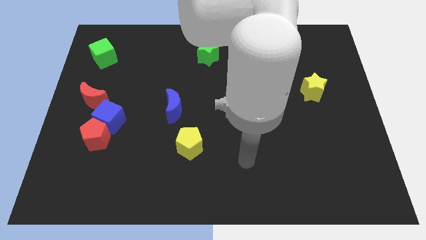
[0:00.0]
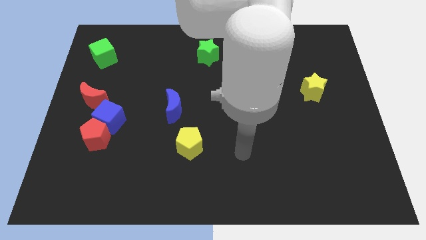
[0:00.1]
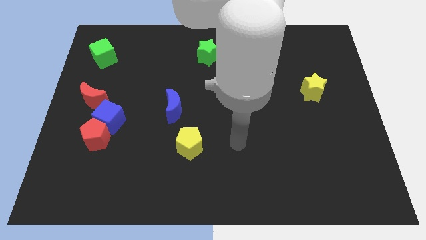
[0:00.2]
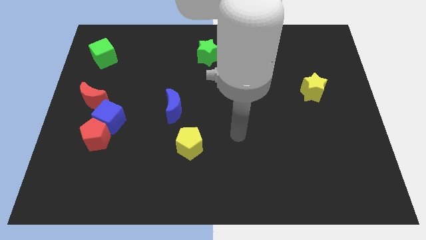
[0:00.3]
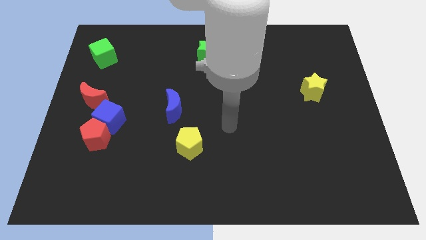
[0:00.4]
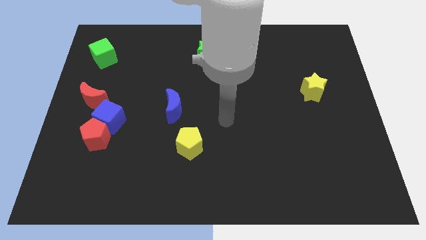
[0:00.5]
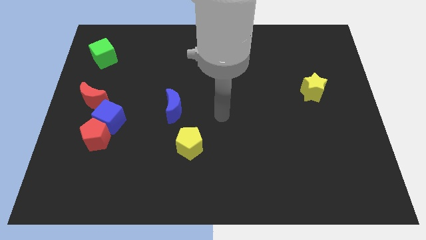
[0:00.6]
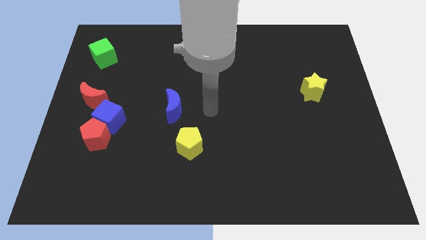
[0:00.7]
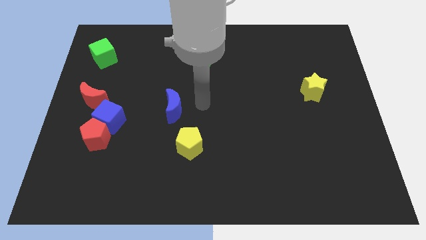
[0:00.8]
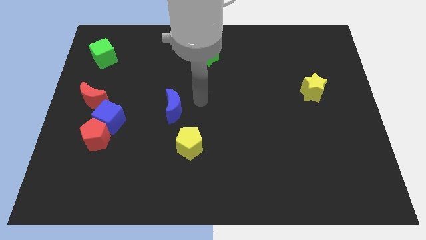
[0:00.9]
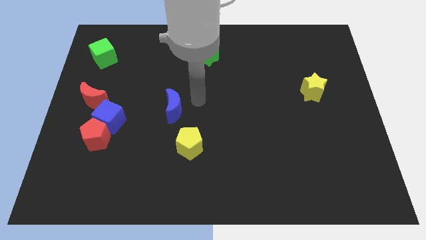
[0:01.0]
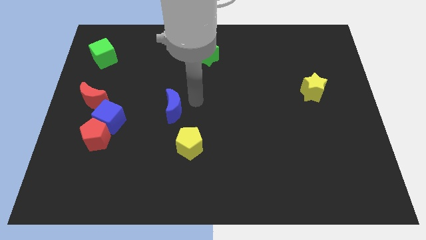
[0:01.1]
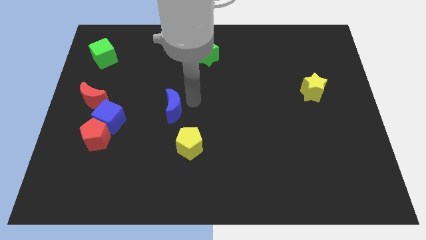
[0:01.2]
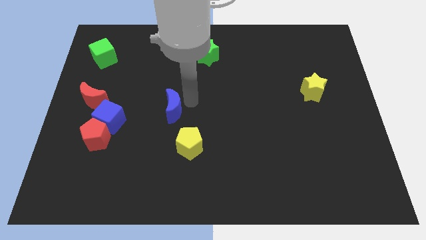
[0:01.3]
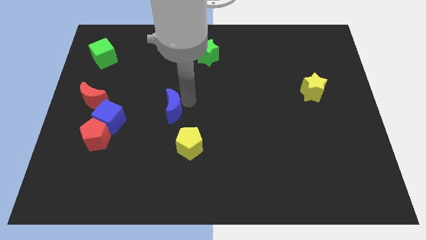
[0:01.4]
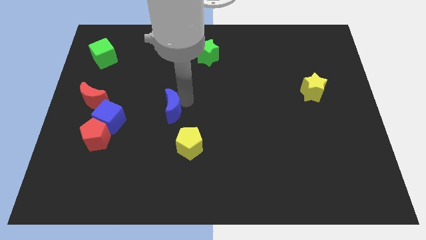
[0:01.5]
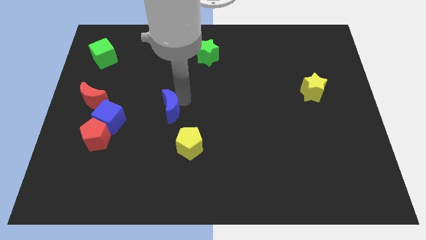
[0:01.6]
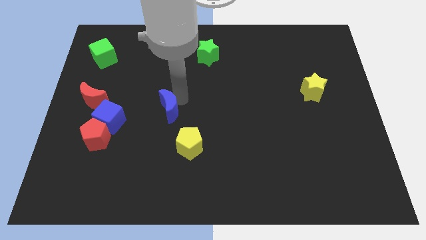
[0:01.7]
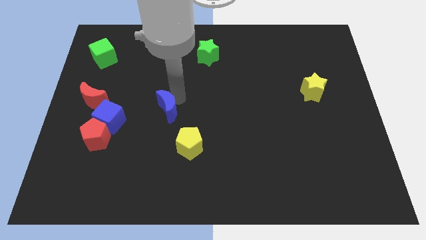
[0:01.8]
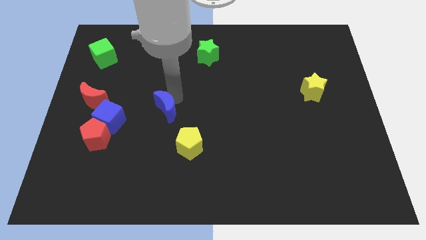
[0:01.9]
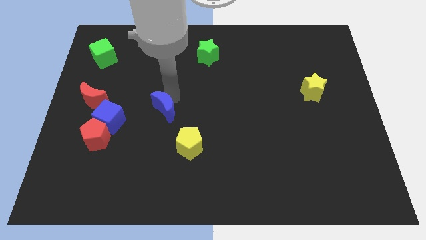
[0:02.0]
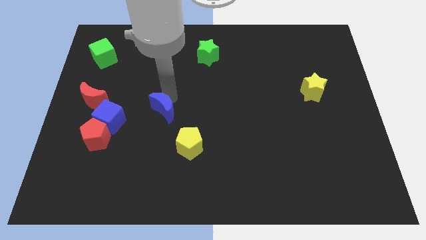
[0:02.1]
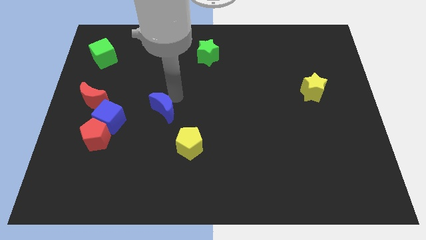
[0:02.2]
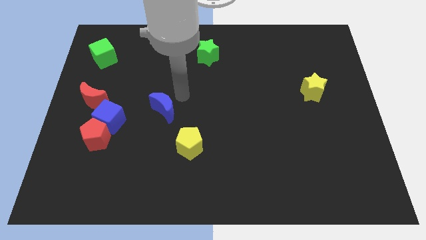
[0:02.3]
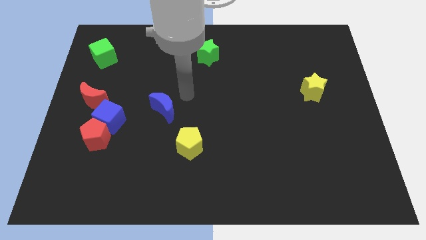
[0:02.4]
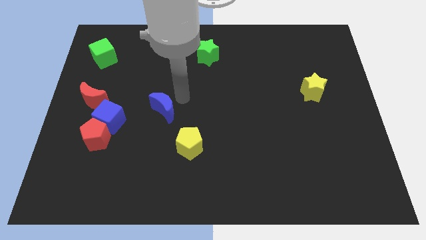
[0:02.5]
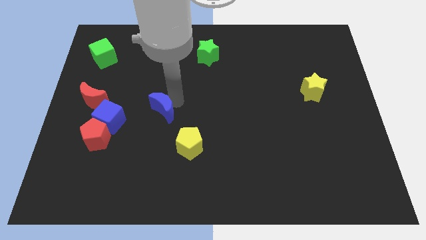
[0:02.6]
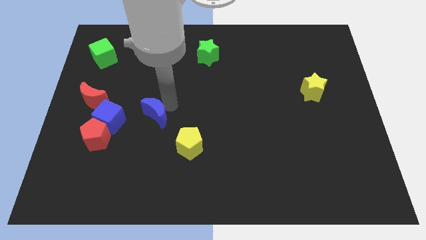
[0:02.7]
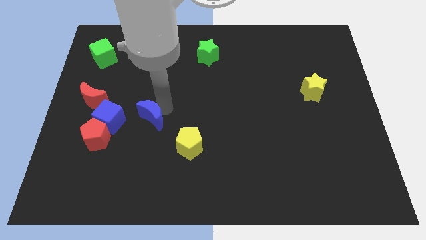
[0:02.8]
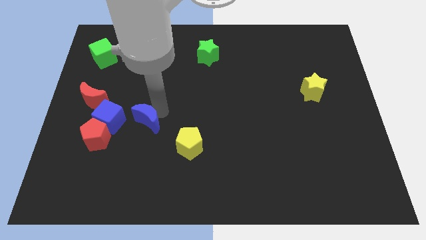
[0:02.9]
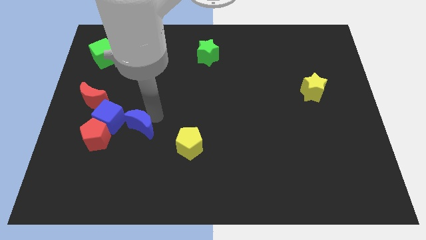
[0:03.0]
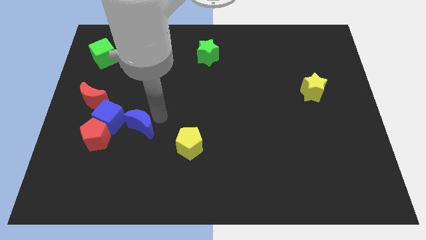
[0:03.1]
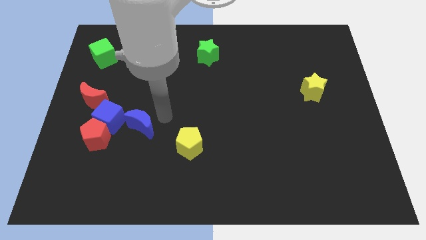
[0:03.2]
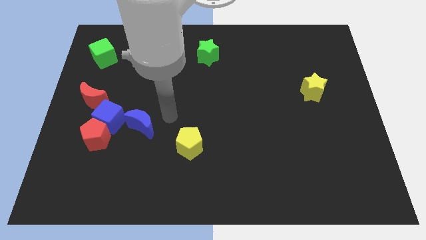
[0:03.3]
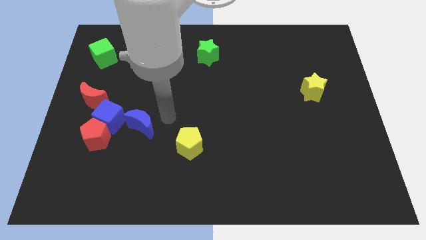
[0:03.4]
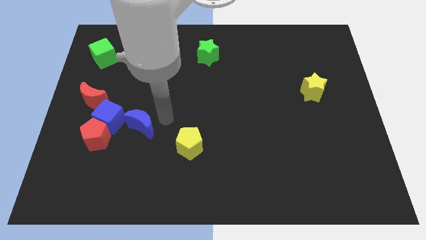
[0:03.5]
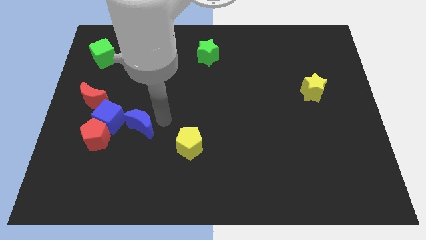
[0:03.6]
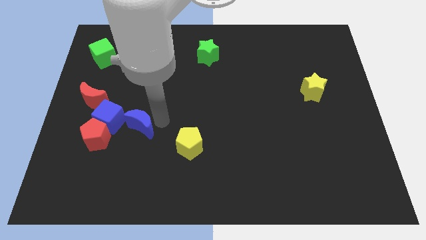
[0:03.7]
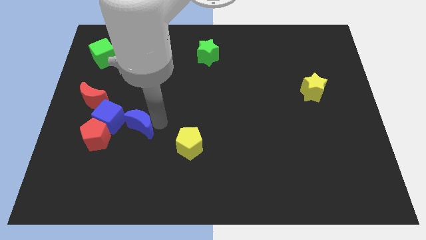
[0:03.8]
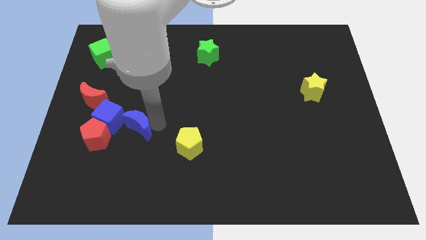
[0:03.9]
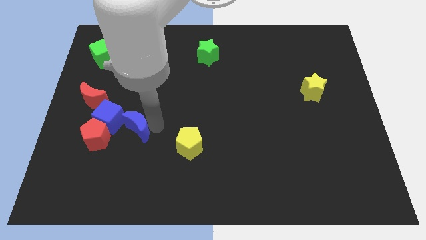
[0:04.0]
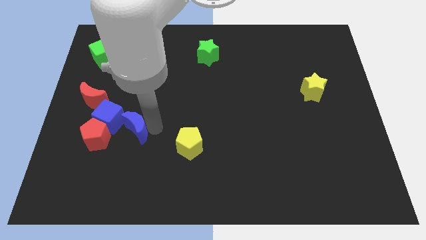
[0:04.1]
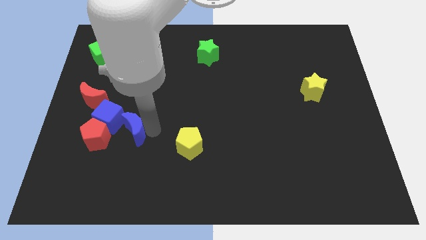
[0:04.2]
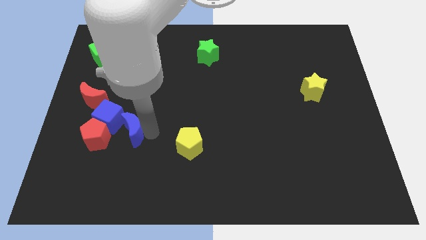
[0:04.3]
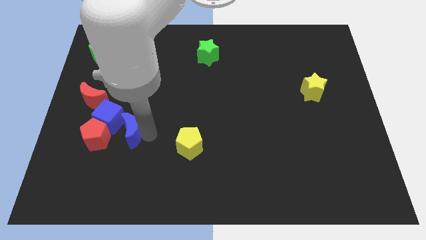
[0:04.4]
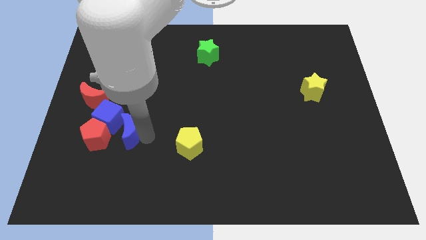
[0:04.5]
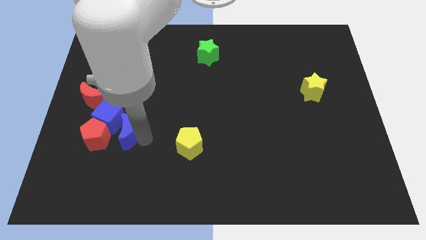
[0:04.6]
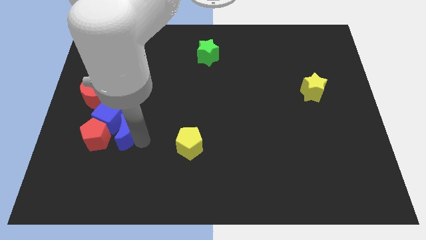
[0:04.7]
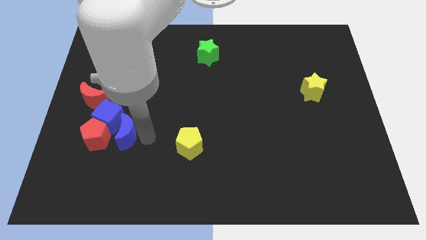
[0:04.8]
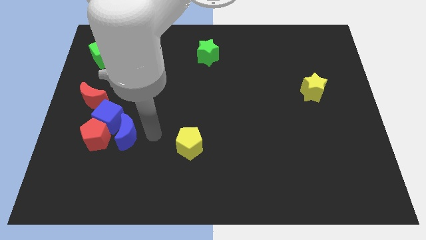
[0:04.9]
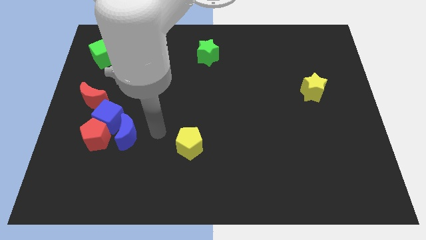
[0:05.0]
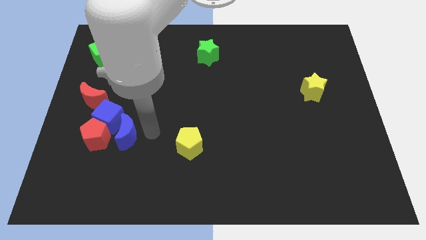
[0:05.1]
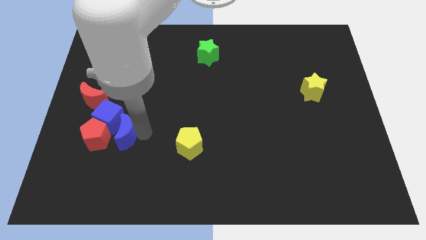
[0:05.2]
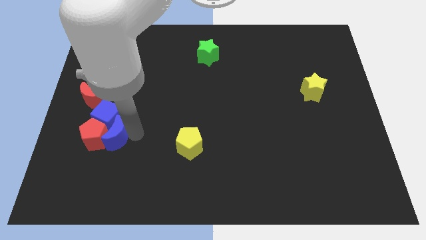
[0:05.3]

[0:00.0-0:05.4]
put the blue moon next to the red pentagon

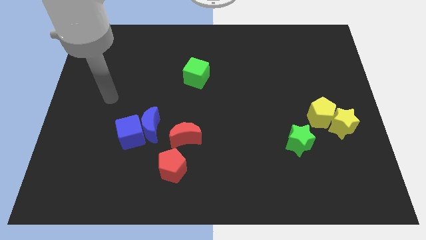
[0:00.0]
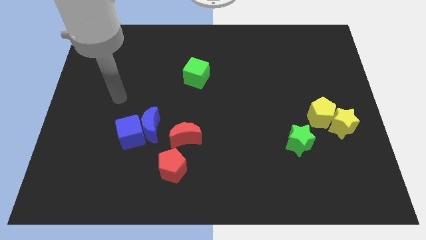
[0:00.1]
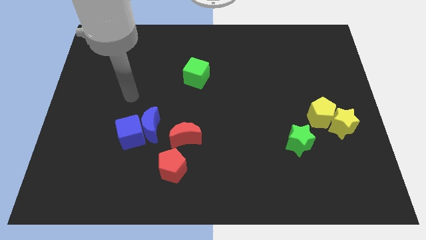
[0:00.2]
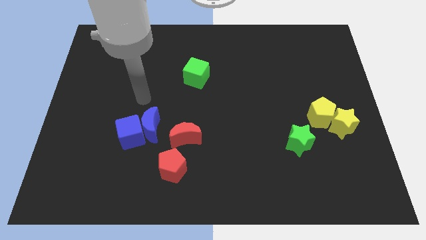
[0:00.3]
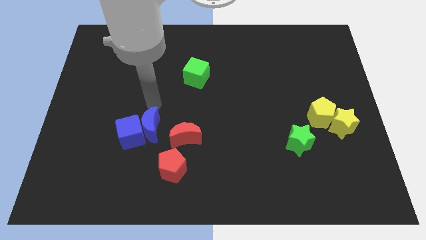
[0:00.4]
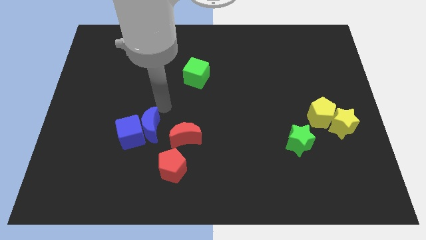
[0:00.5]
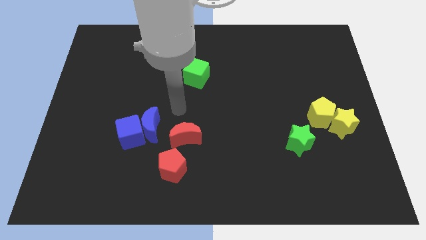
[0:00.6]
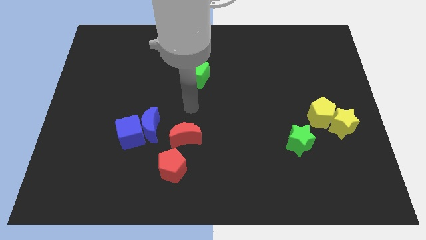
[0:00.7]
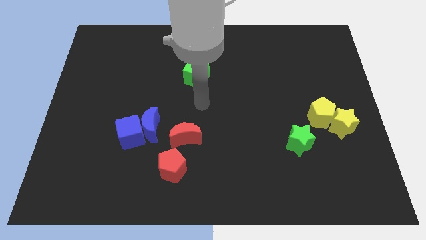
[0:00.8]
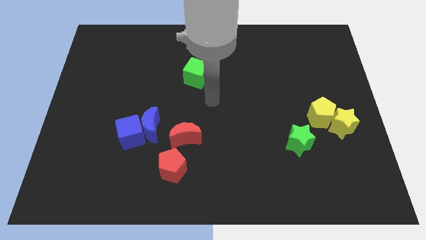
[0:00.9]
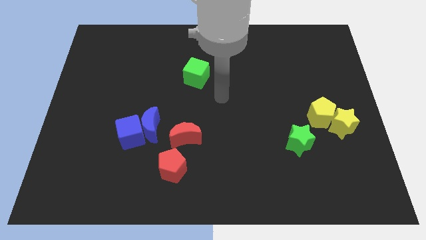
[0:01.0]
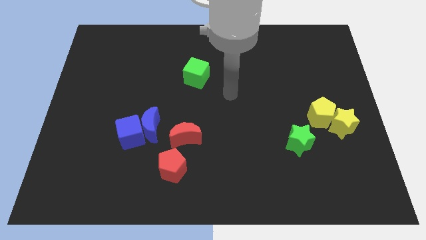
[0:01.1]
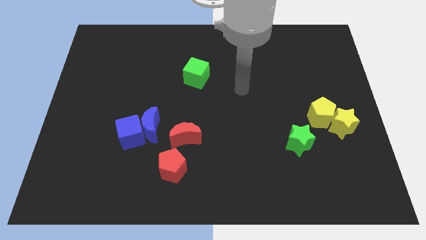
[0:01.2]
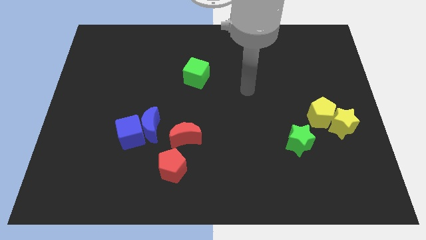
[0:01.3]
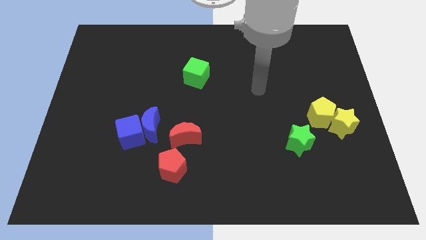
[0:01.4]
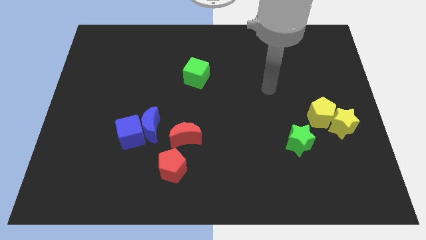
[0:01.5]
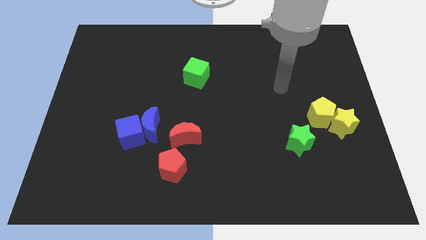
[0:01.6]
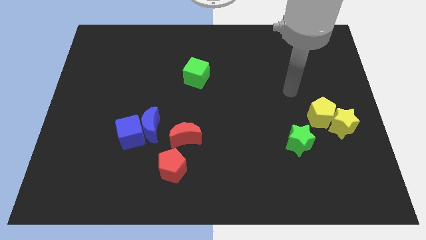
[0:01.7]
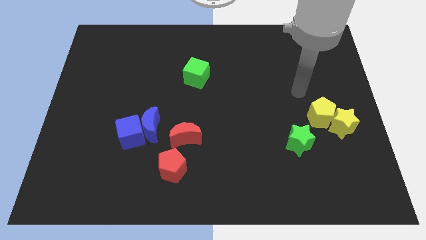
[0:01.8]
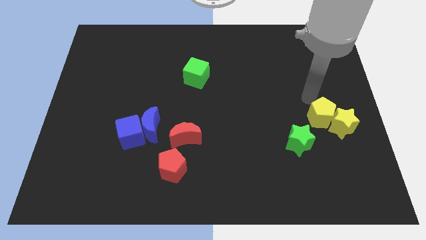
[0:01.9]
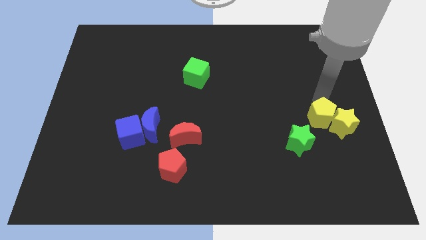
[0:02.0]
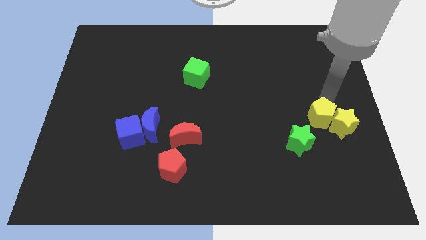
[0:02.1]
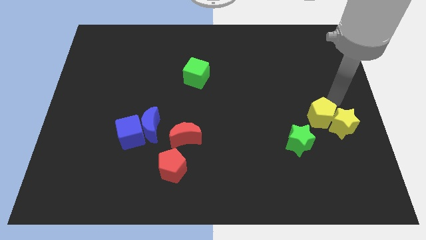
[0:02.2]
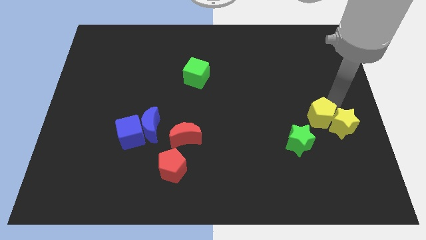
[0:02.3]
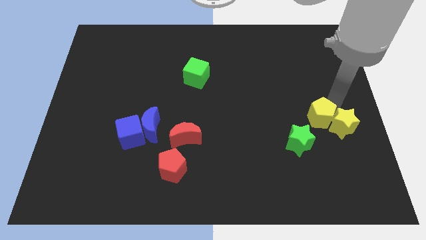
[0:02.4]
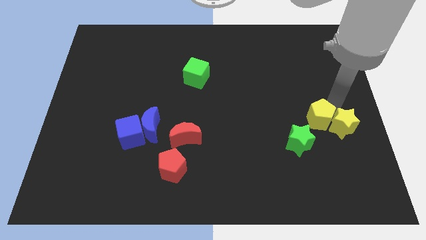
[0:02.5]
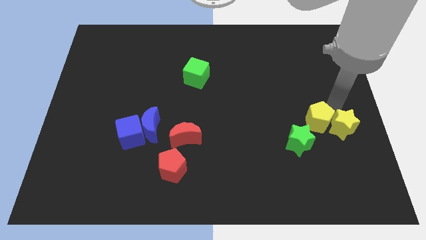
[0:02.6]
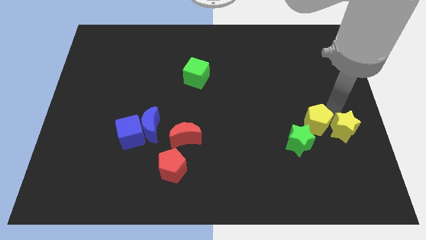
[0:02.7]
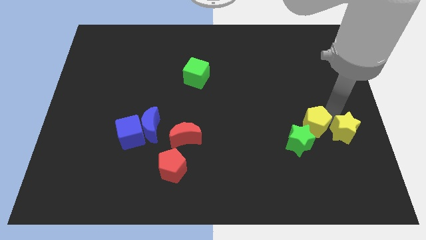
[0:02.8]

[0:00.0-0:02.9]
put the yellow pentagon next to the green star

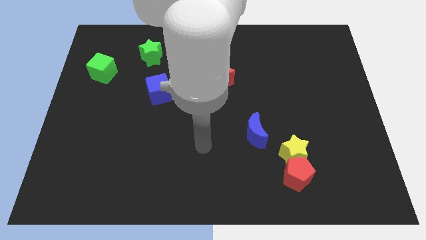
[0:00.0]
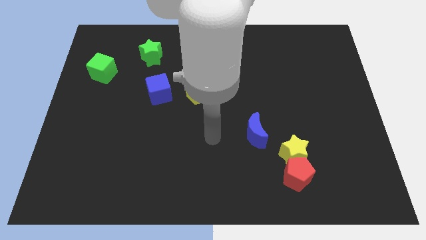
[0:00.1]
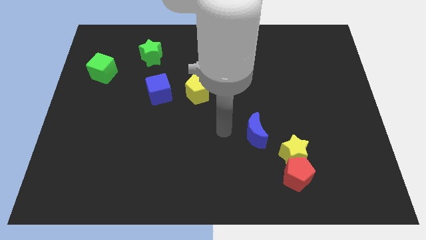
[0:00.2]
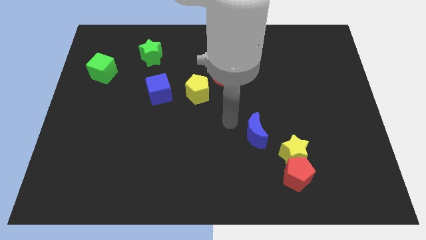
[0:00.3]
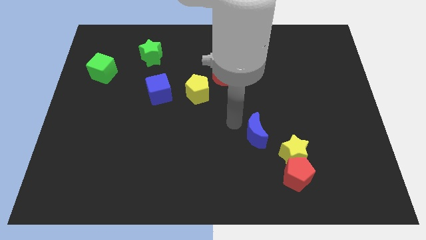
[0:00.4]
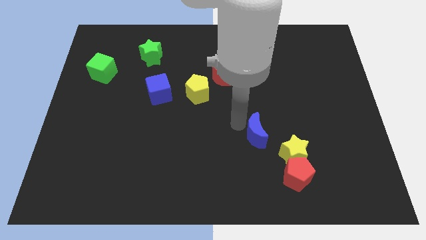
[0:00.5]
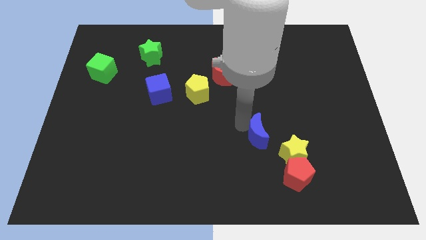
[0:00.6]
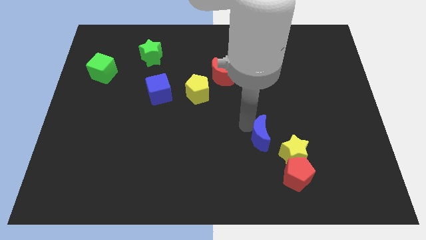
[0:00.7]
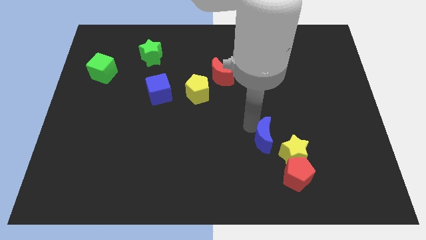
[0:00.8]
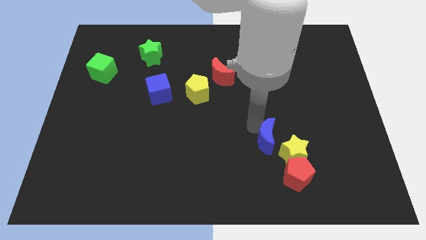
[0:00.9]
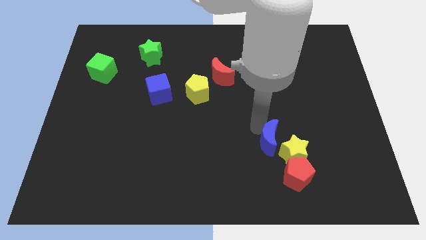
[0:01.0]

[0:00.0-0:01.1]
move the blue moon next to the yellow star
